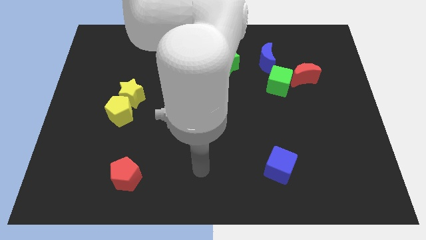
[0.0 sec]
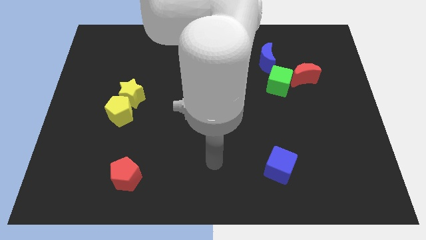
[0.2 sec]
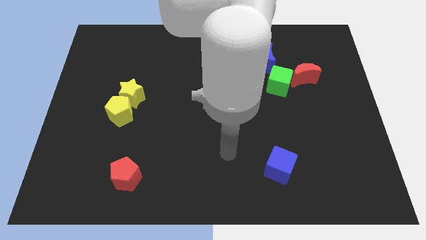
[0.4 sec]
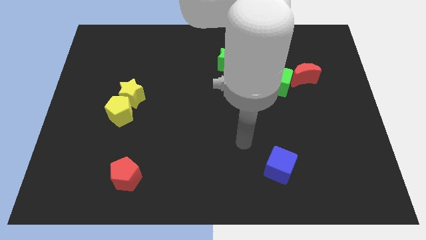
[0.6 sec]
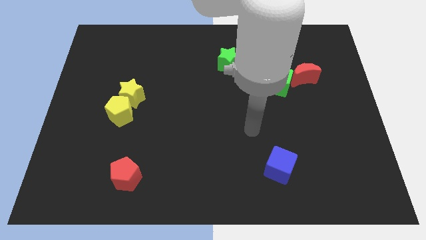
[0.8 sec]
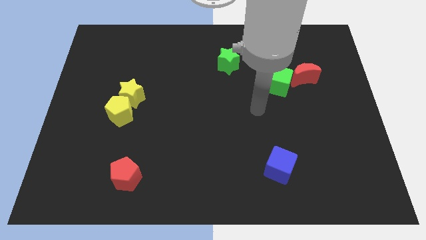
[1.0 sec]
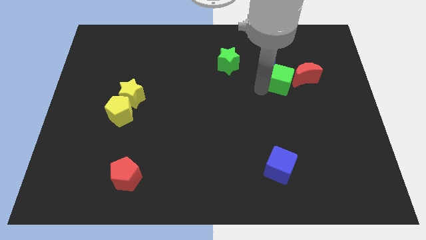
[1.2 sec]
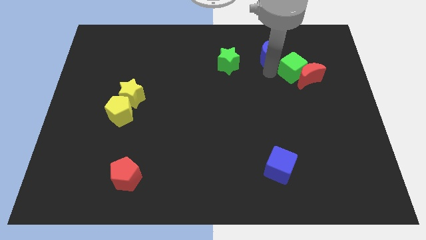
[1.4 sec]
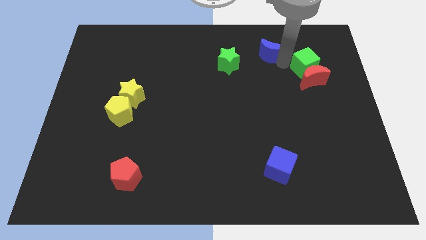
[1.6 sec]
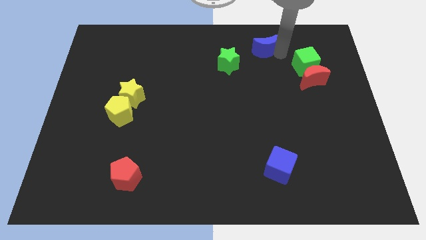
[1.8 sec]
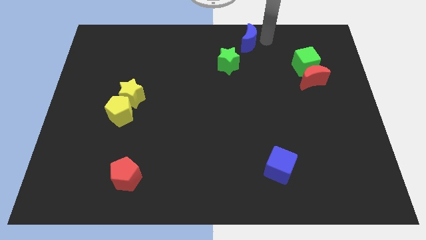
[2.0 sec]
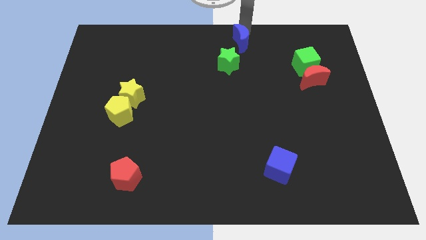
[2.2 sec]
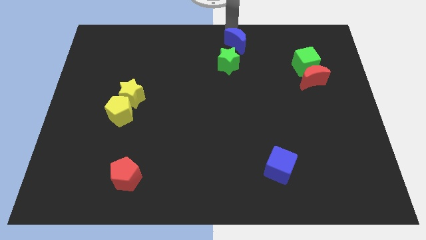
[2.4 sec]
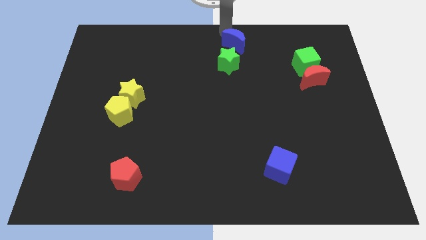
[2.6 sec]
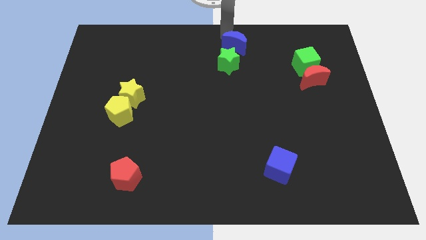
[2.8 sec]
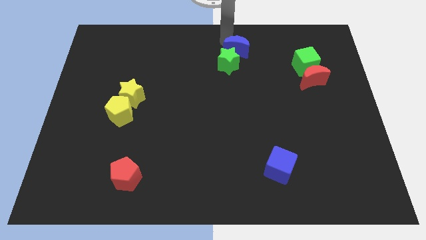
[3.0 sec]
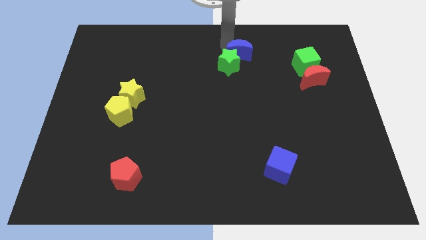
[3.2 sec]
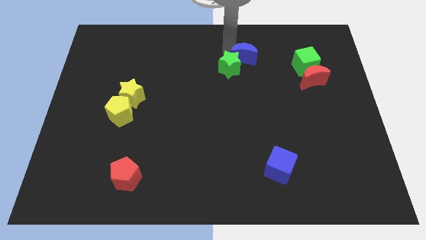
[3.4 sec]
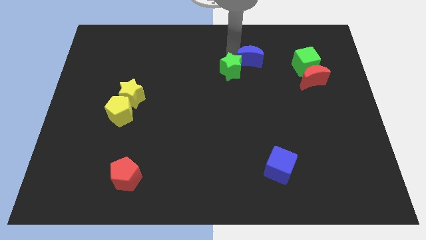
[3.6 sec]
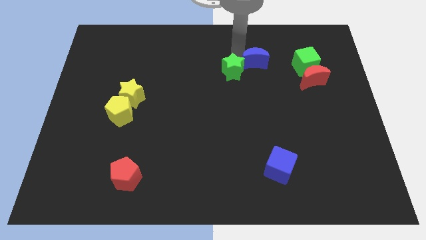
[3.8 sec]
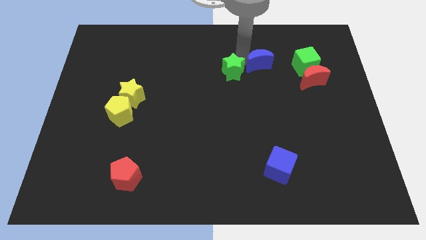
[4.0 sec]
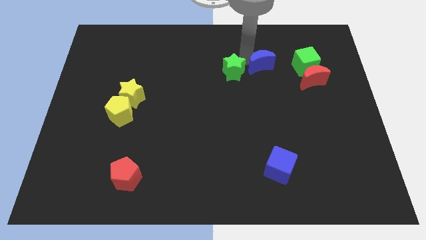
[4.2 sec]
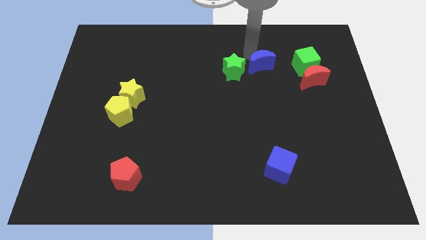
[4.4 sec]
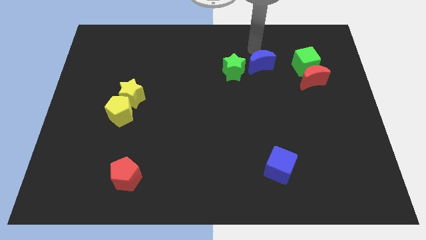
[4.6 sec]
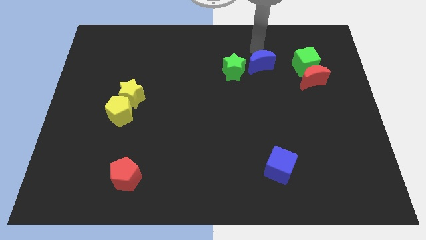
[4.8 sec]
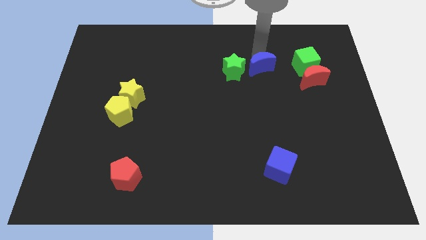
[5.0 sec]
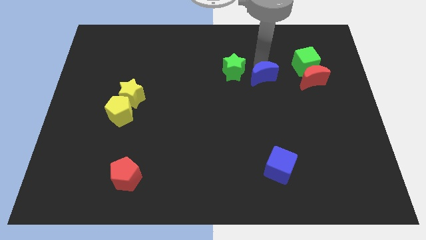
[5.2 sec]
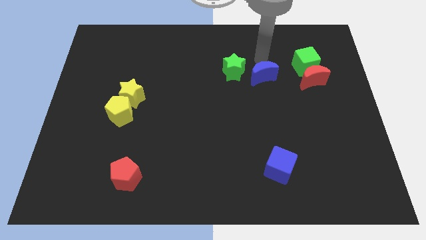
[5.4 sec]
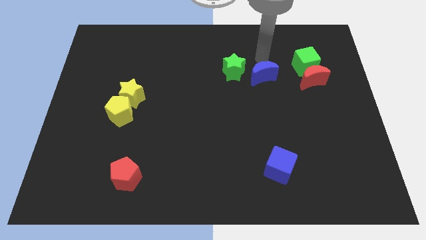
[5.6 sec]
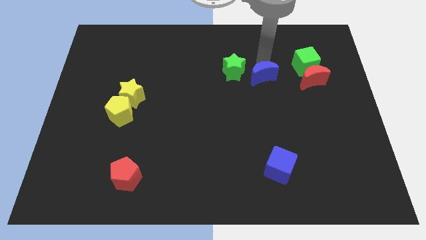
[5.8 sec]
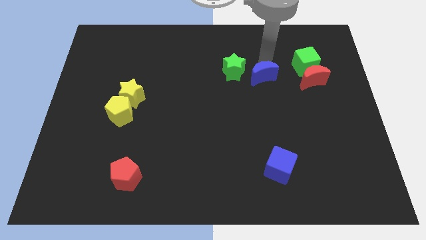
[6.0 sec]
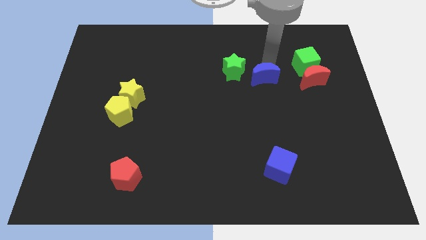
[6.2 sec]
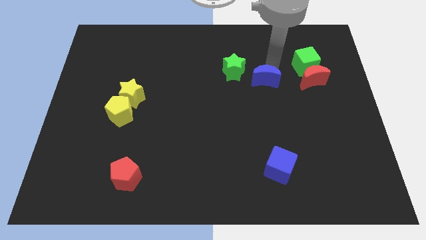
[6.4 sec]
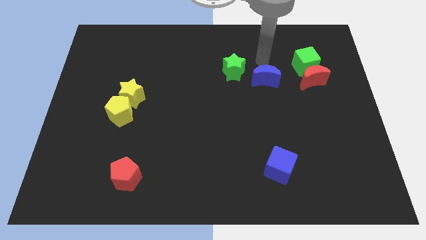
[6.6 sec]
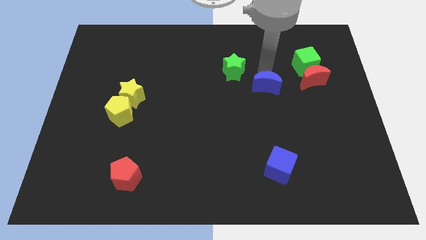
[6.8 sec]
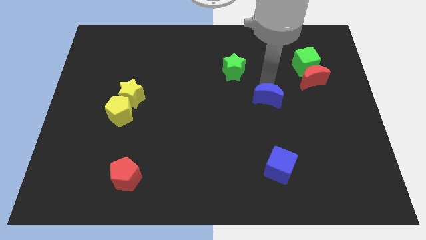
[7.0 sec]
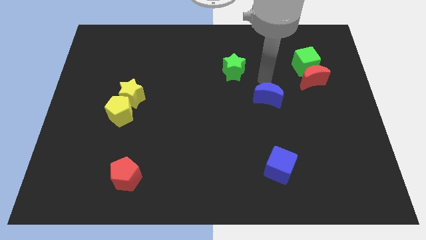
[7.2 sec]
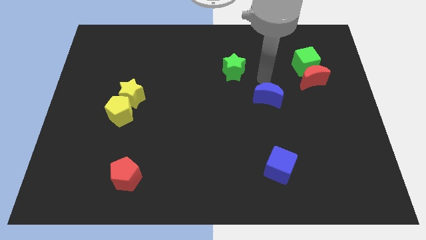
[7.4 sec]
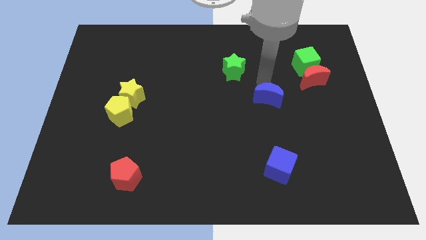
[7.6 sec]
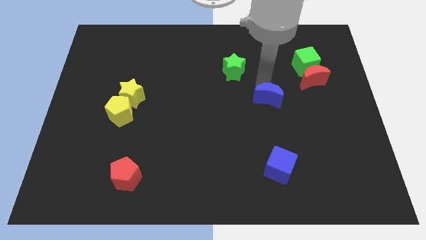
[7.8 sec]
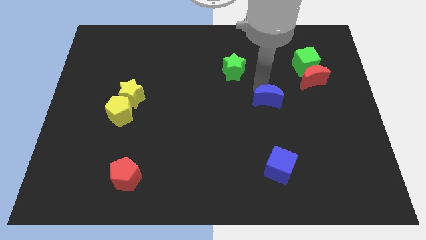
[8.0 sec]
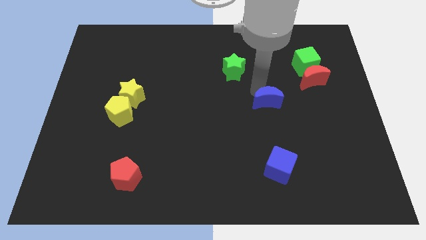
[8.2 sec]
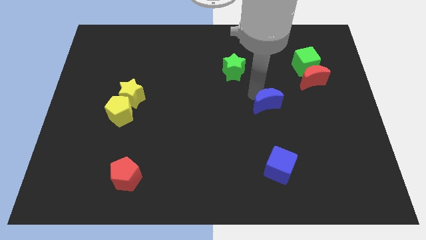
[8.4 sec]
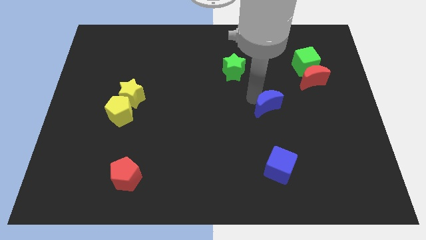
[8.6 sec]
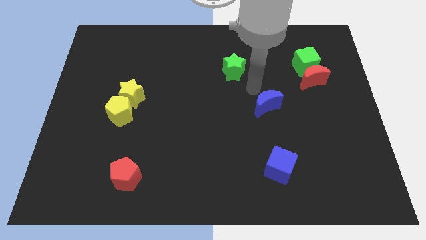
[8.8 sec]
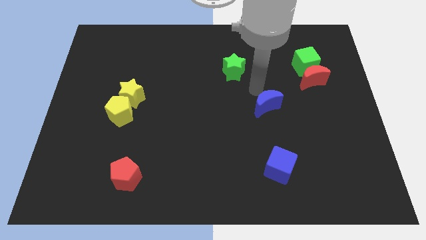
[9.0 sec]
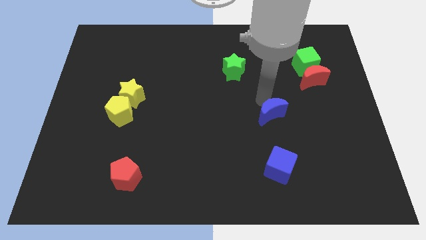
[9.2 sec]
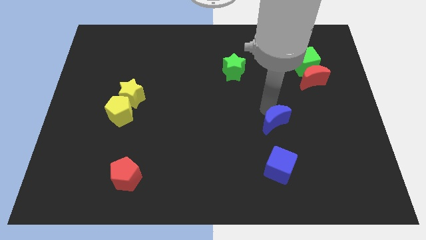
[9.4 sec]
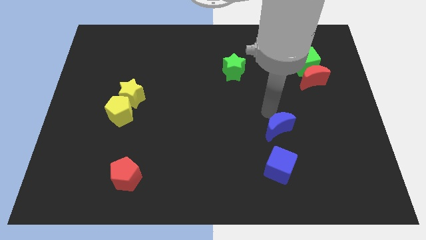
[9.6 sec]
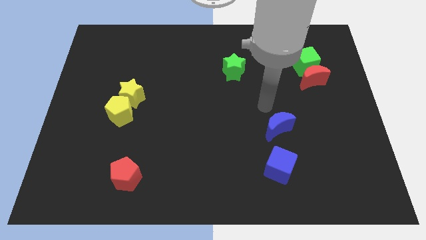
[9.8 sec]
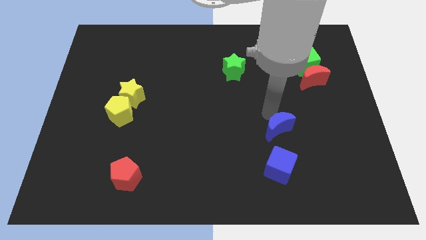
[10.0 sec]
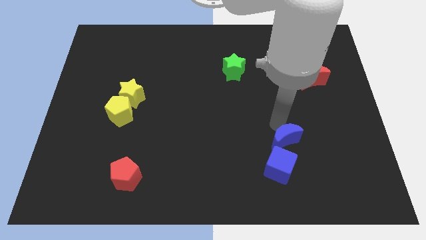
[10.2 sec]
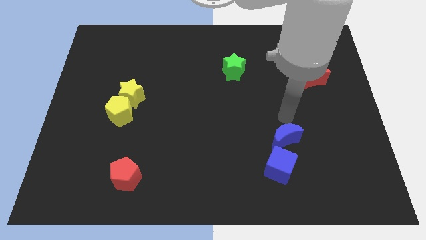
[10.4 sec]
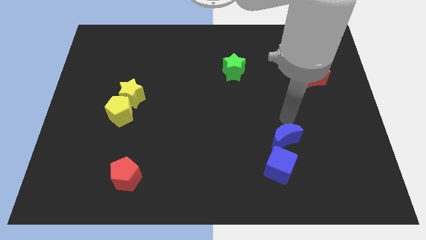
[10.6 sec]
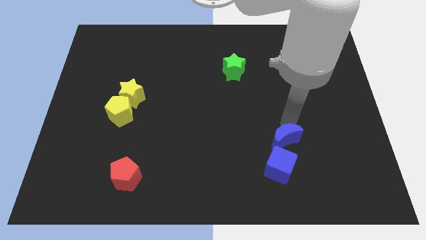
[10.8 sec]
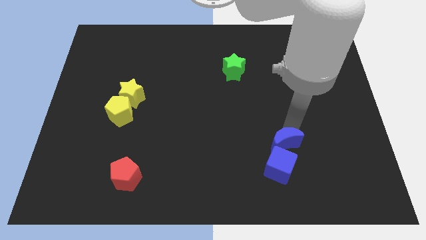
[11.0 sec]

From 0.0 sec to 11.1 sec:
put the blue moon close to the blue cube

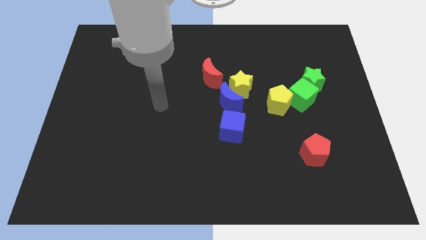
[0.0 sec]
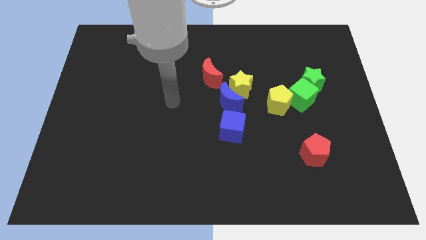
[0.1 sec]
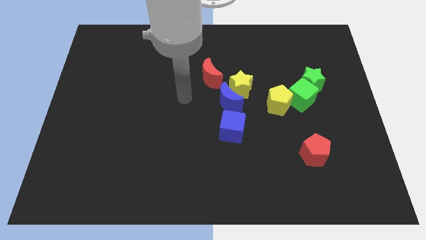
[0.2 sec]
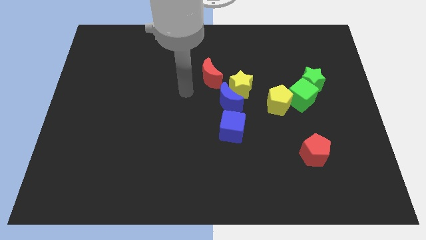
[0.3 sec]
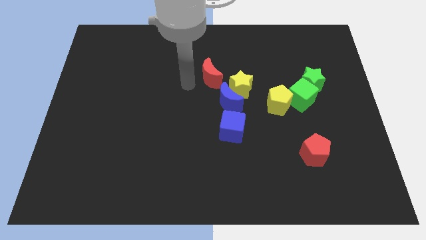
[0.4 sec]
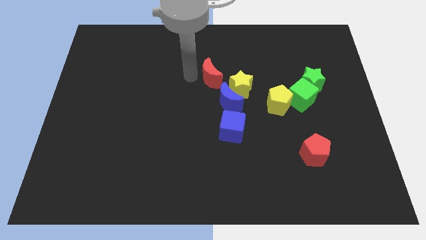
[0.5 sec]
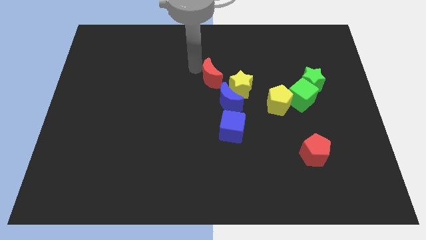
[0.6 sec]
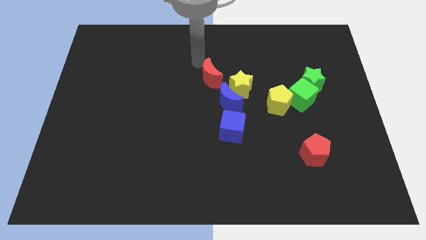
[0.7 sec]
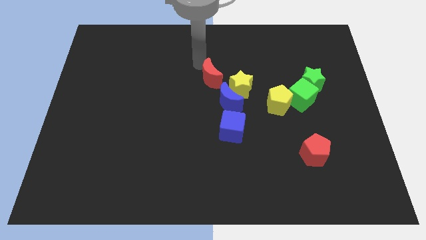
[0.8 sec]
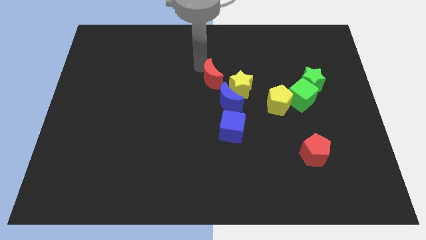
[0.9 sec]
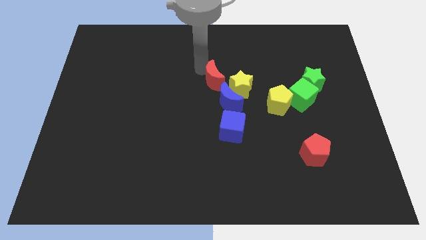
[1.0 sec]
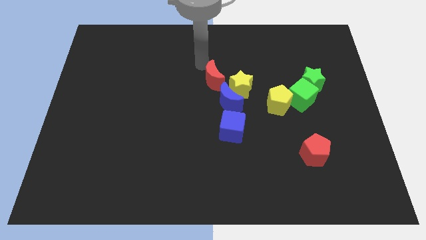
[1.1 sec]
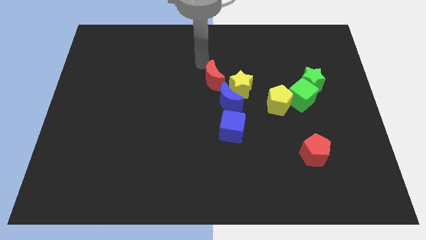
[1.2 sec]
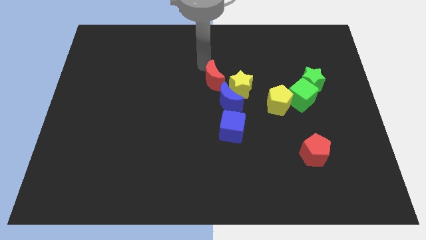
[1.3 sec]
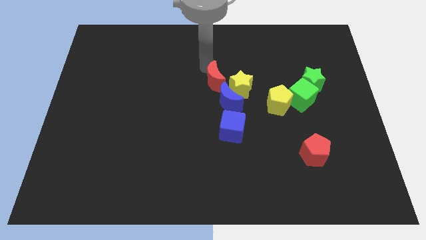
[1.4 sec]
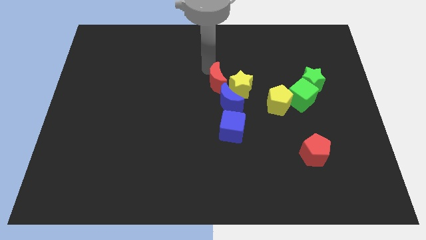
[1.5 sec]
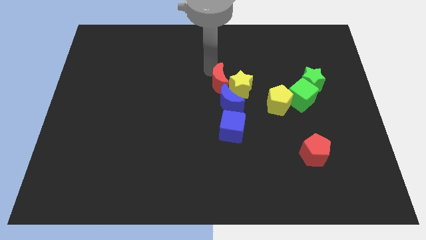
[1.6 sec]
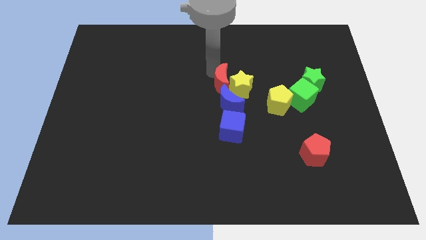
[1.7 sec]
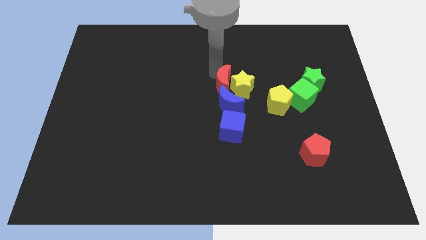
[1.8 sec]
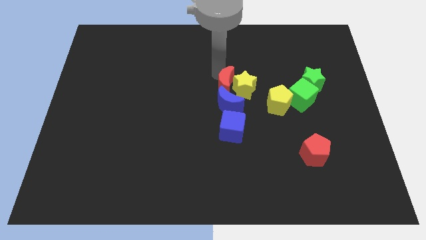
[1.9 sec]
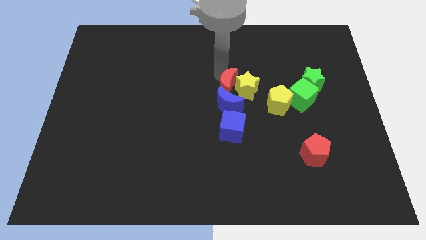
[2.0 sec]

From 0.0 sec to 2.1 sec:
slide the red moon close to the blue moon
